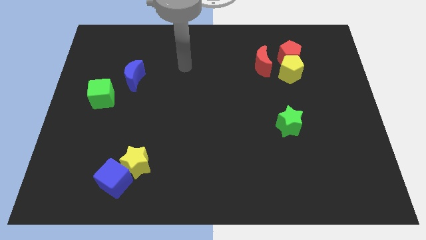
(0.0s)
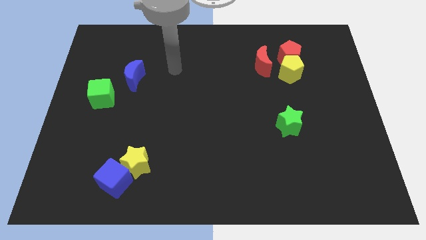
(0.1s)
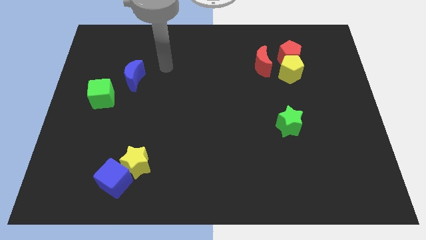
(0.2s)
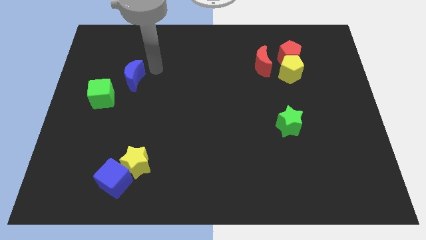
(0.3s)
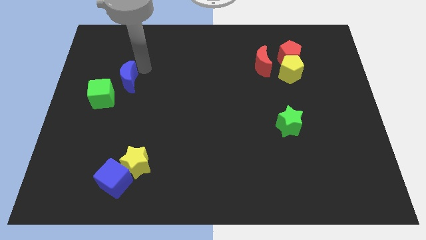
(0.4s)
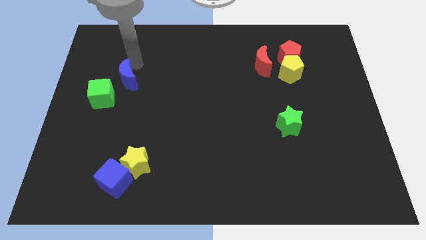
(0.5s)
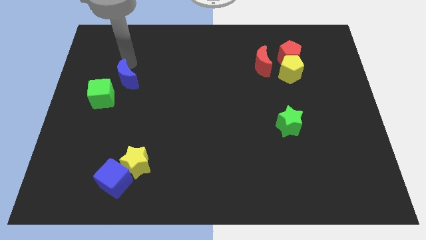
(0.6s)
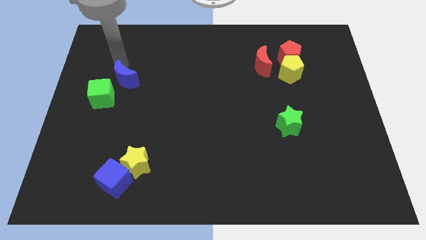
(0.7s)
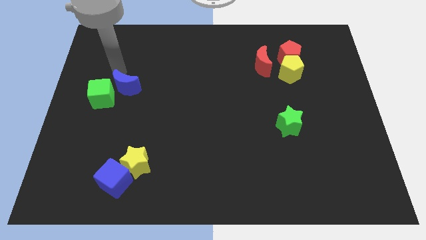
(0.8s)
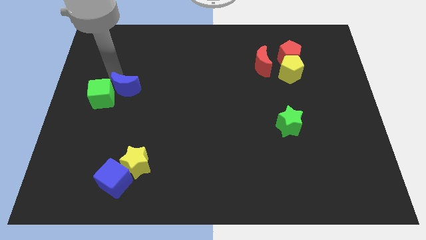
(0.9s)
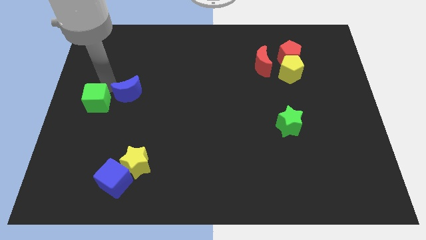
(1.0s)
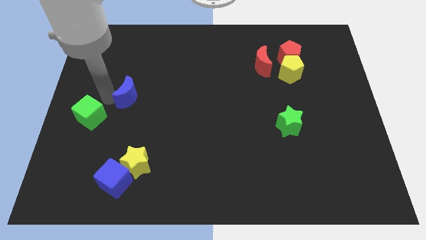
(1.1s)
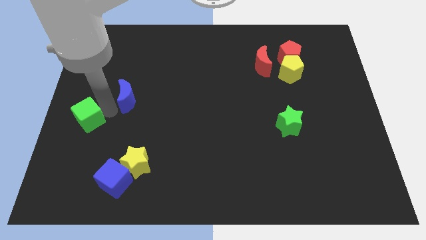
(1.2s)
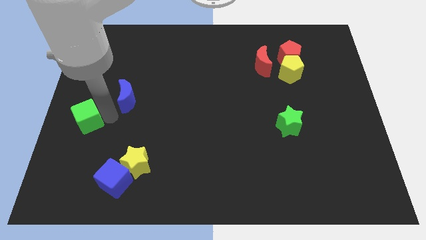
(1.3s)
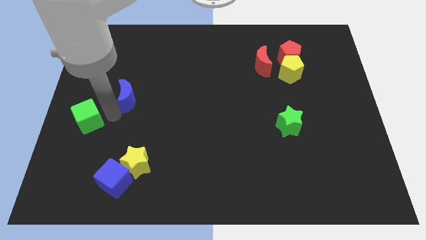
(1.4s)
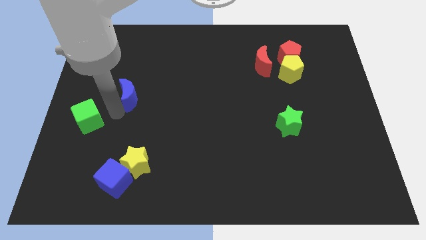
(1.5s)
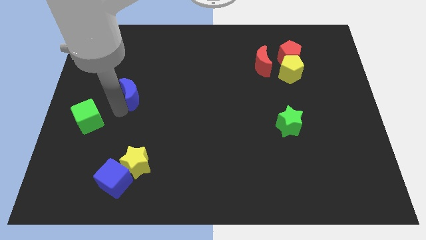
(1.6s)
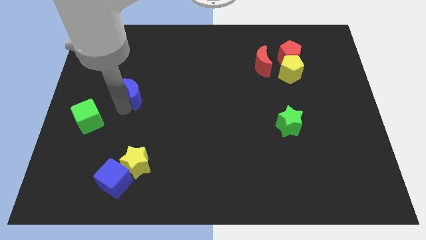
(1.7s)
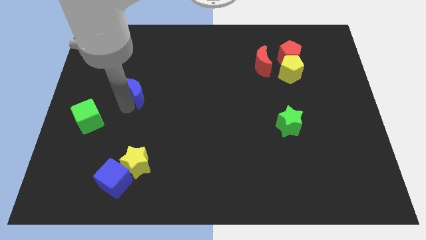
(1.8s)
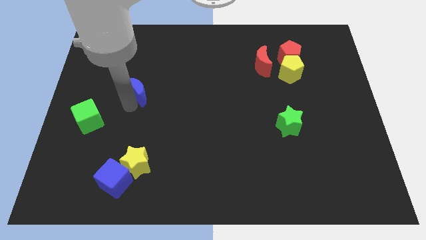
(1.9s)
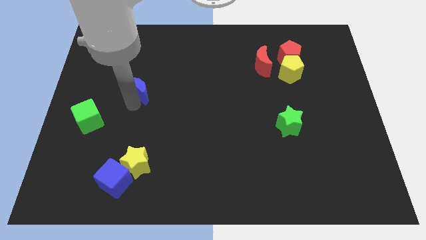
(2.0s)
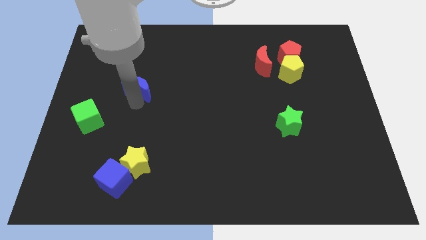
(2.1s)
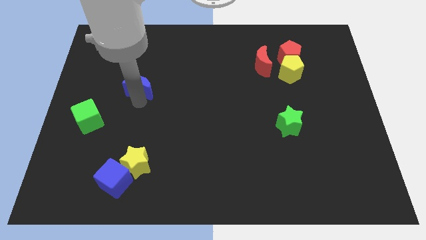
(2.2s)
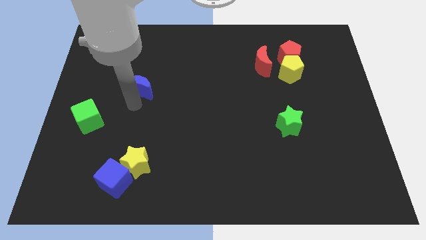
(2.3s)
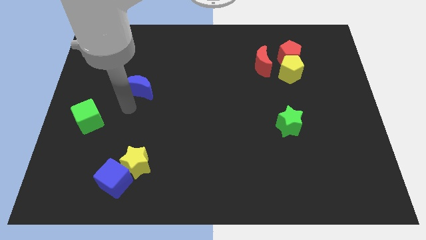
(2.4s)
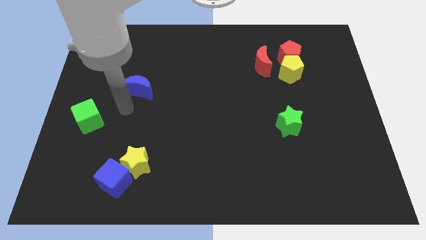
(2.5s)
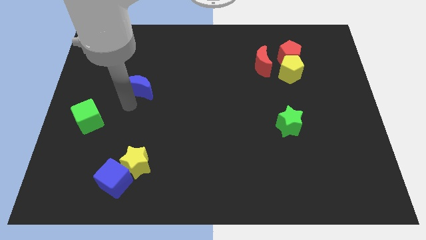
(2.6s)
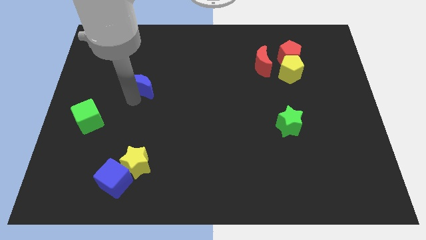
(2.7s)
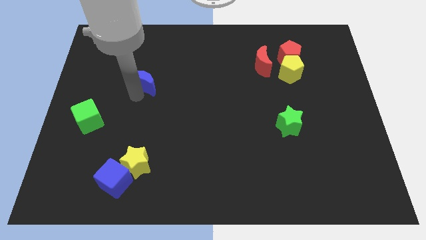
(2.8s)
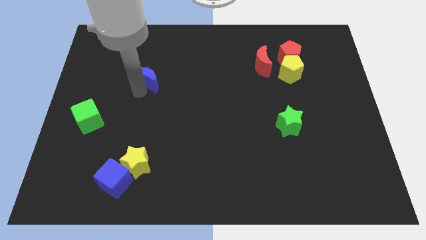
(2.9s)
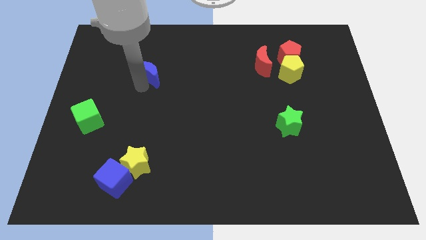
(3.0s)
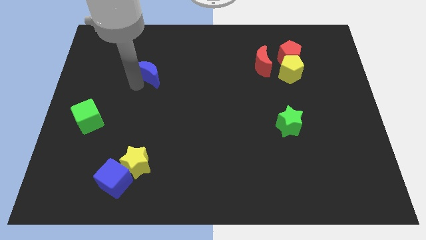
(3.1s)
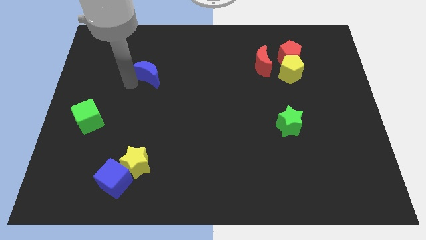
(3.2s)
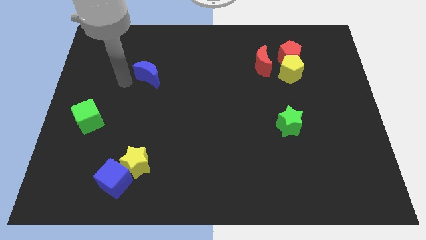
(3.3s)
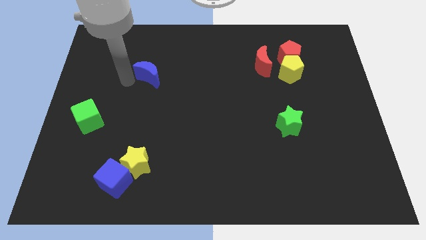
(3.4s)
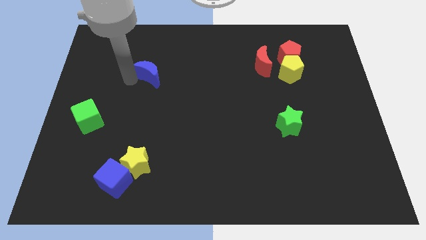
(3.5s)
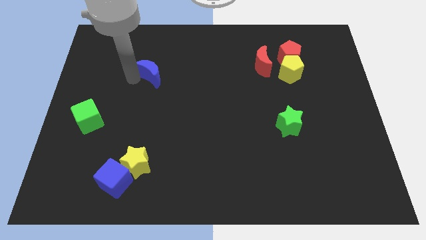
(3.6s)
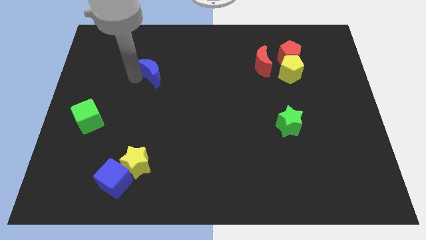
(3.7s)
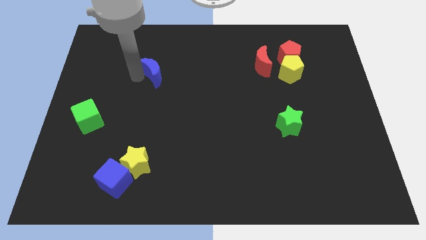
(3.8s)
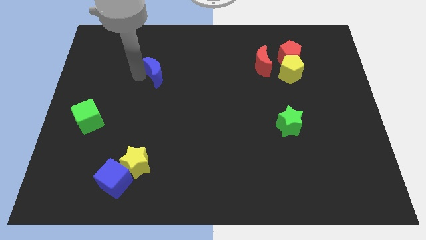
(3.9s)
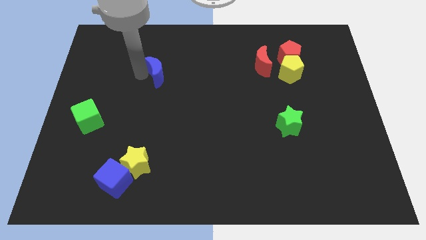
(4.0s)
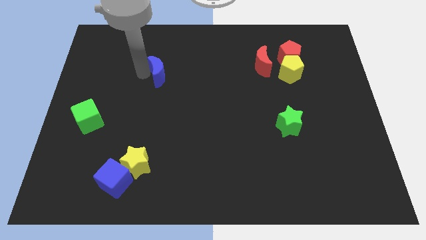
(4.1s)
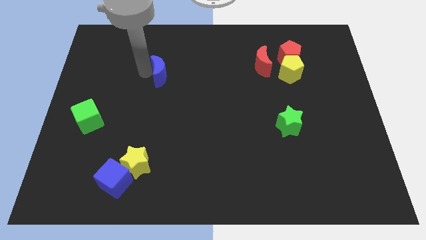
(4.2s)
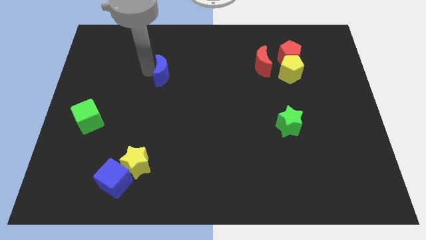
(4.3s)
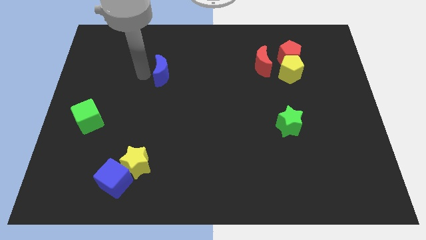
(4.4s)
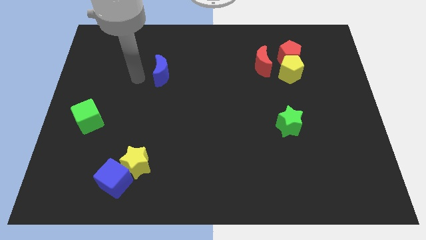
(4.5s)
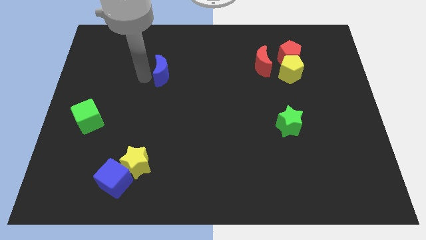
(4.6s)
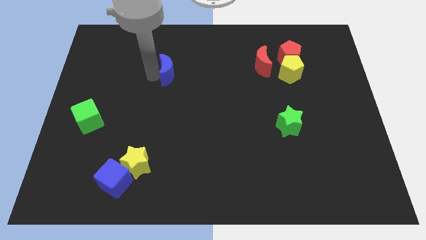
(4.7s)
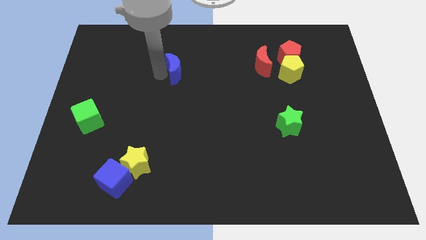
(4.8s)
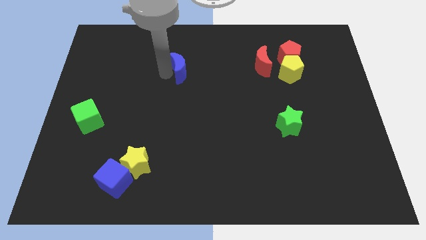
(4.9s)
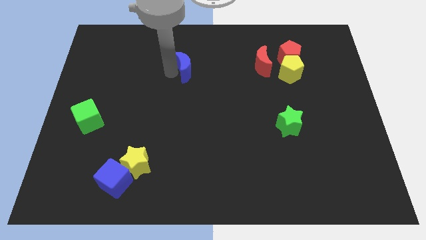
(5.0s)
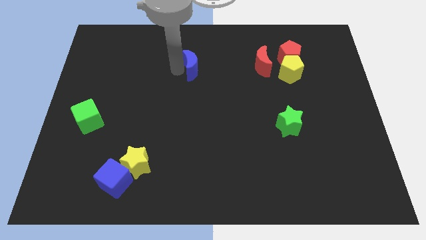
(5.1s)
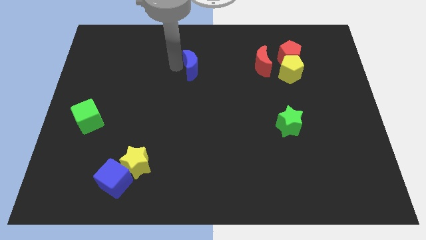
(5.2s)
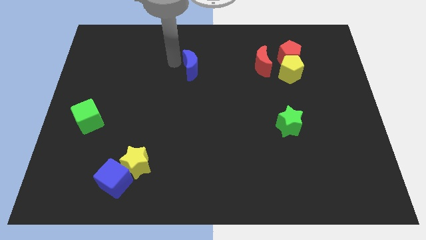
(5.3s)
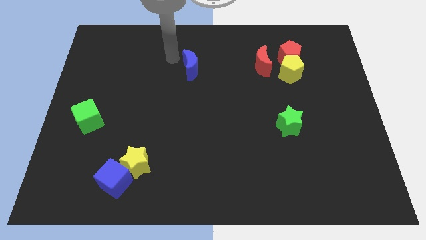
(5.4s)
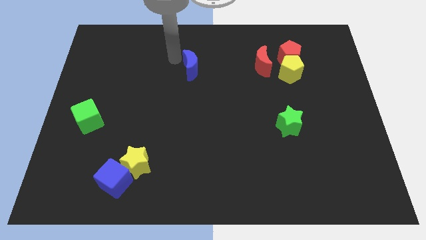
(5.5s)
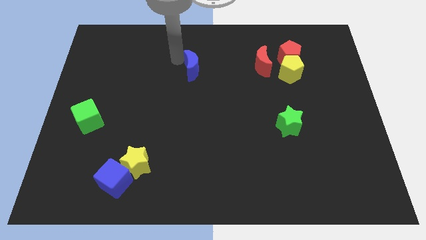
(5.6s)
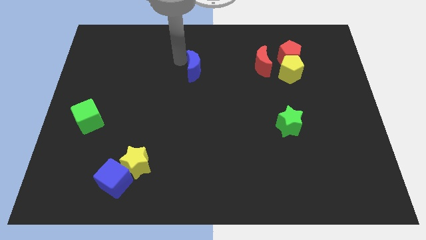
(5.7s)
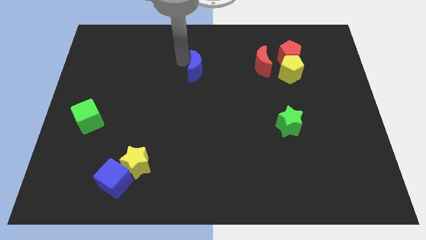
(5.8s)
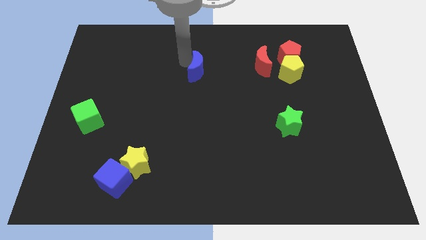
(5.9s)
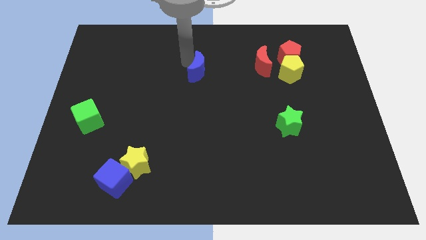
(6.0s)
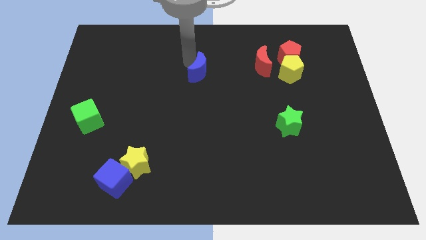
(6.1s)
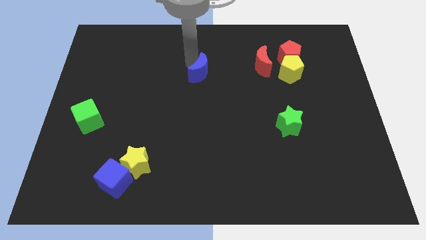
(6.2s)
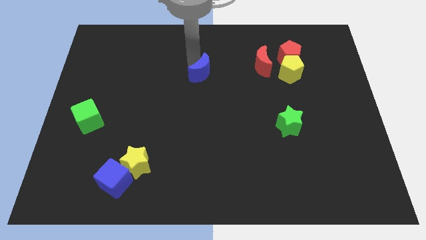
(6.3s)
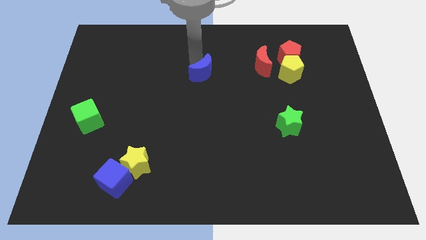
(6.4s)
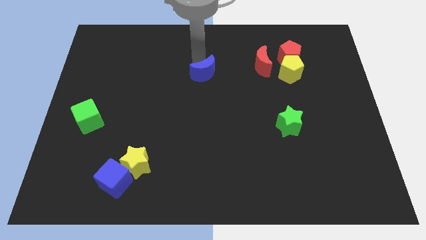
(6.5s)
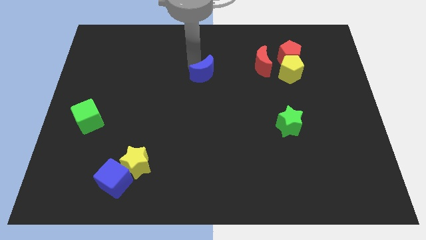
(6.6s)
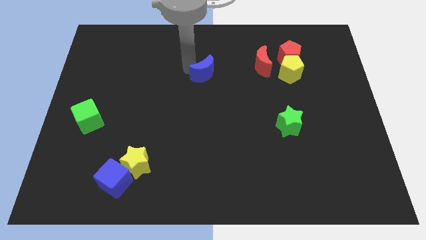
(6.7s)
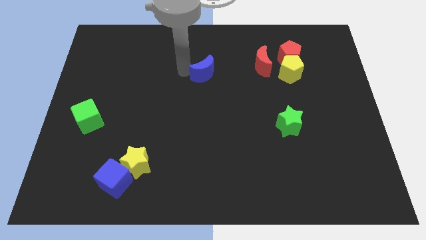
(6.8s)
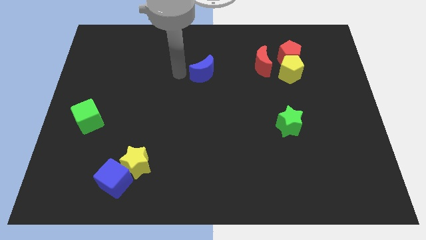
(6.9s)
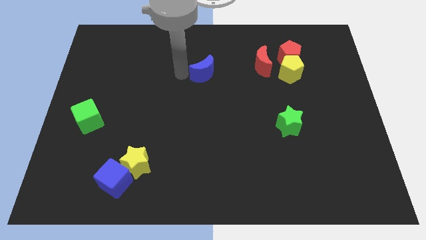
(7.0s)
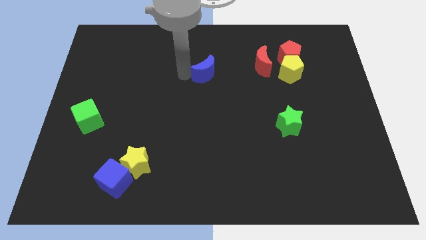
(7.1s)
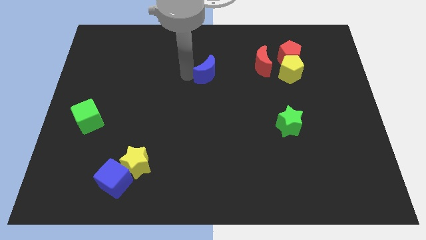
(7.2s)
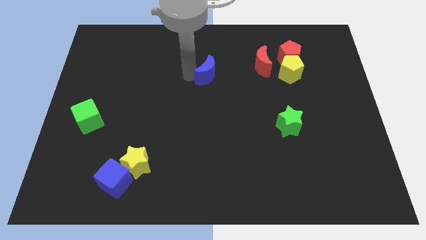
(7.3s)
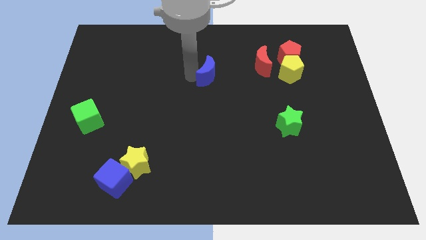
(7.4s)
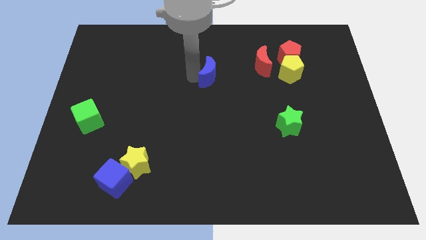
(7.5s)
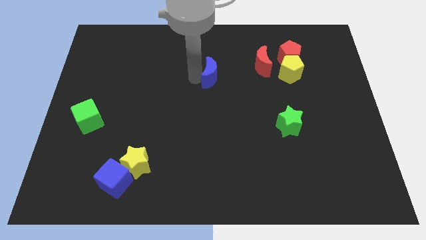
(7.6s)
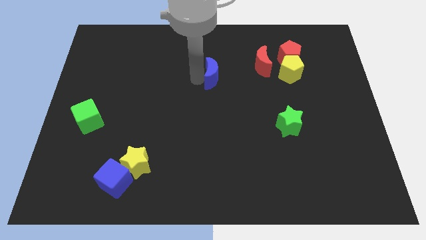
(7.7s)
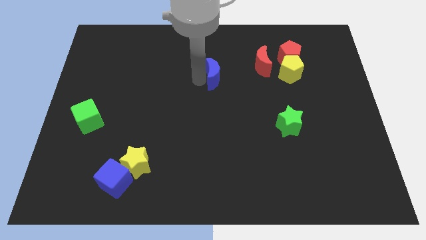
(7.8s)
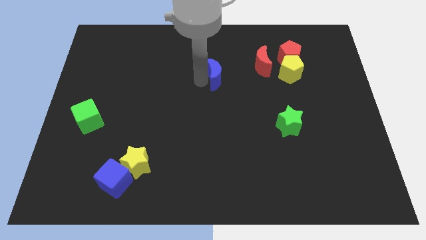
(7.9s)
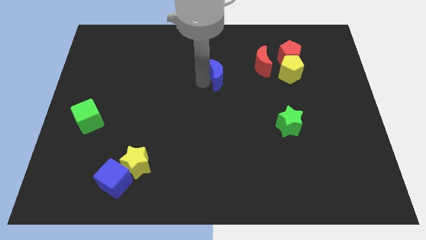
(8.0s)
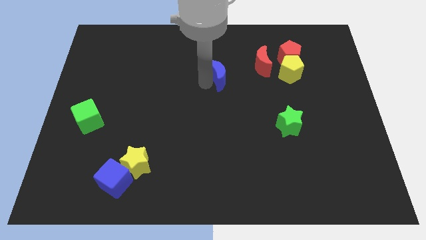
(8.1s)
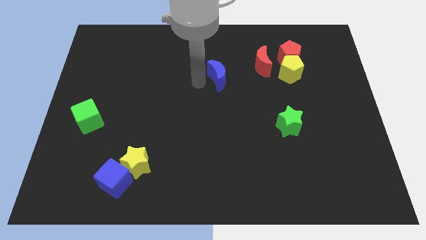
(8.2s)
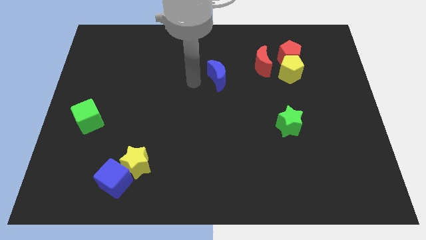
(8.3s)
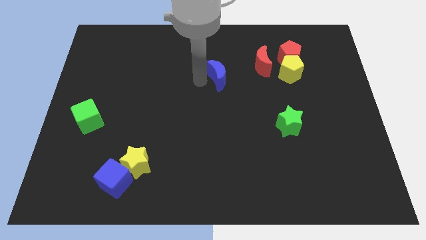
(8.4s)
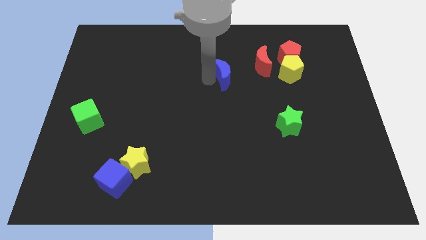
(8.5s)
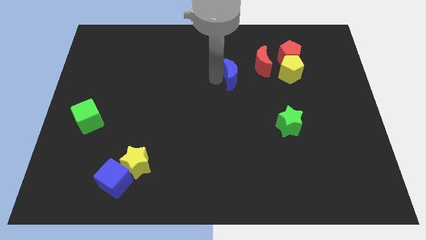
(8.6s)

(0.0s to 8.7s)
slide the blue moon just left of the yellow pentagon
